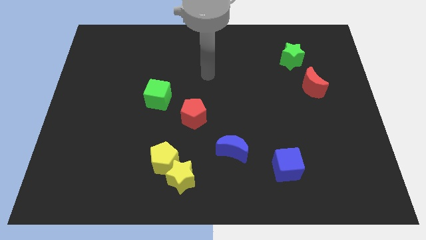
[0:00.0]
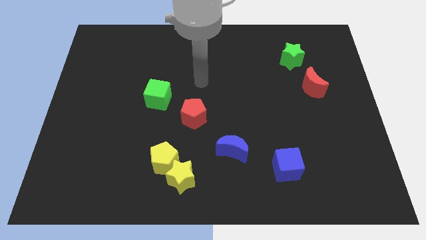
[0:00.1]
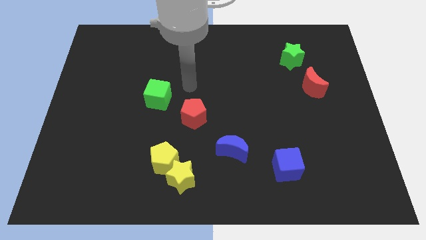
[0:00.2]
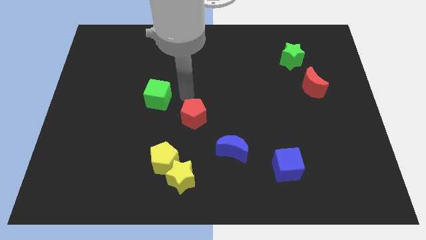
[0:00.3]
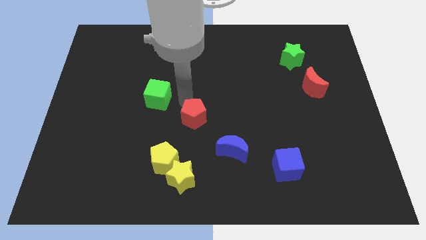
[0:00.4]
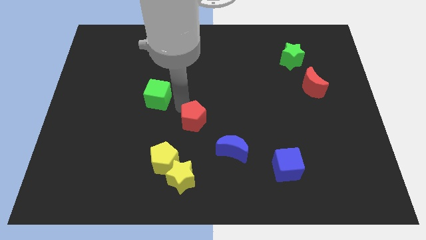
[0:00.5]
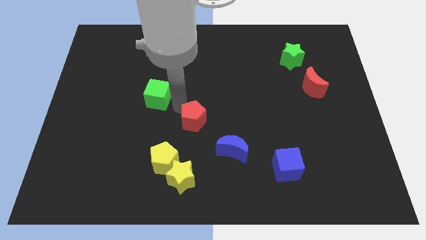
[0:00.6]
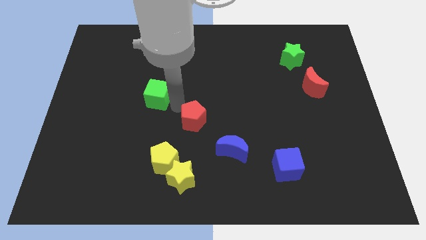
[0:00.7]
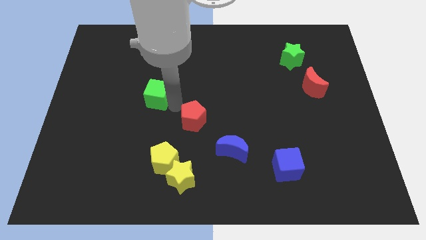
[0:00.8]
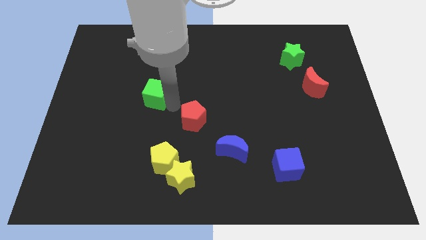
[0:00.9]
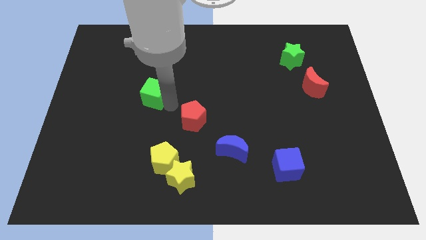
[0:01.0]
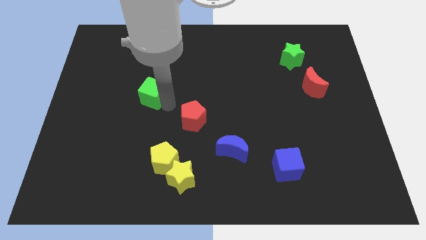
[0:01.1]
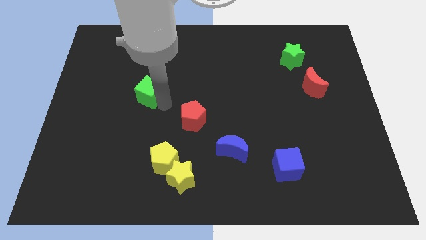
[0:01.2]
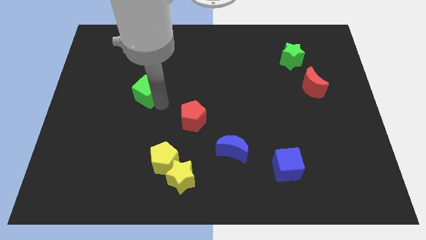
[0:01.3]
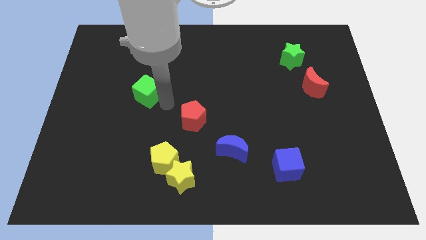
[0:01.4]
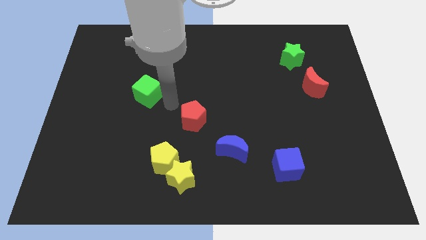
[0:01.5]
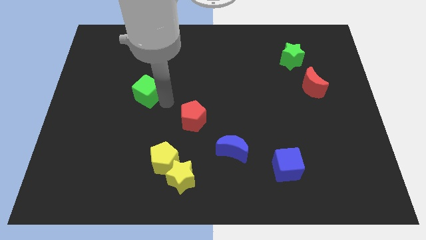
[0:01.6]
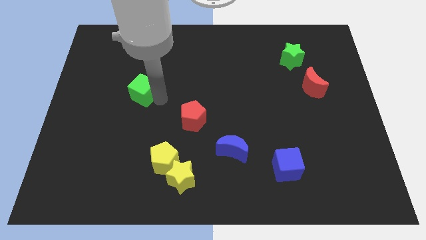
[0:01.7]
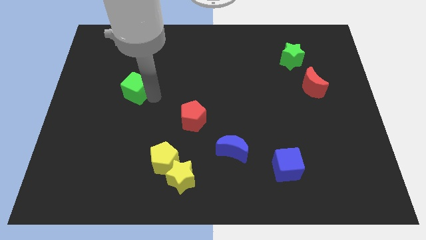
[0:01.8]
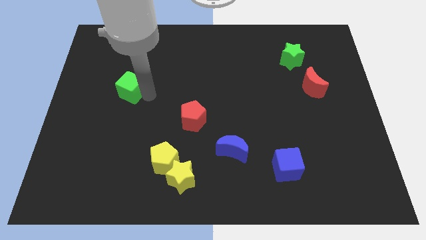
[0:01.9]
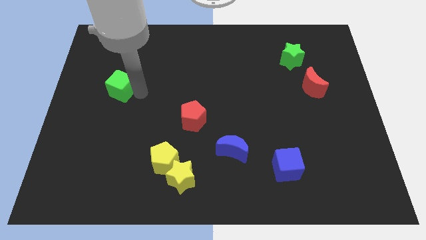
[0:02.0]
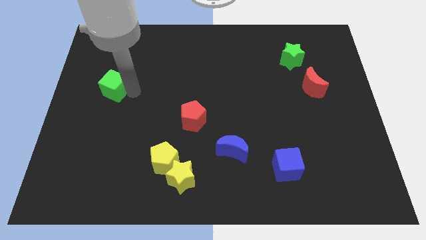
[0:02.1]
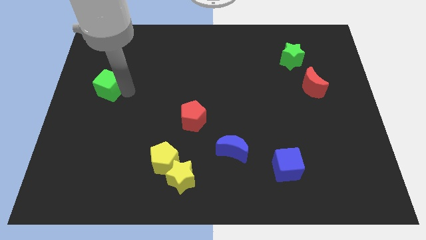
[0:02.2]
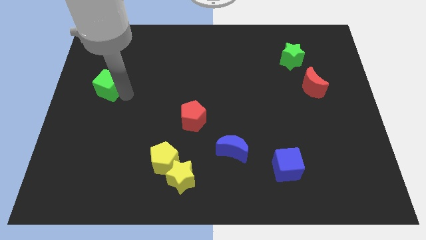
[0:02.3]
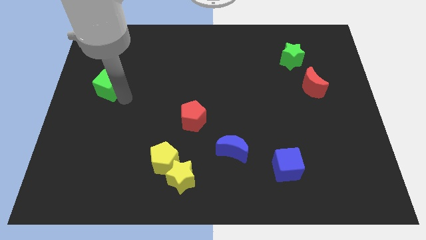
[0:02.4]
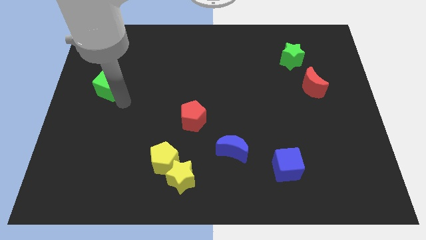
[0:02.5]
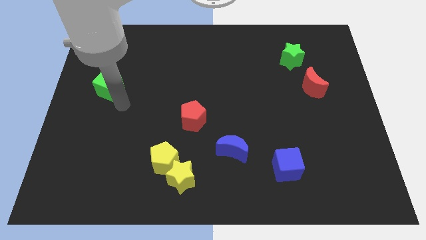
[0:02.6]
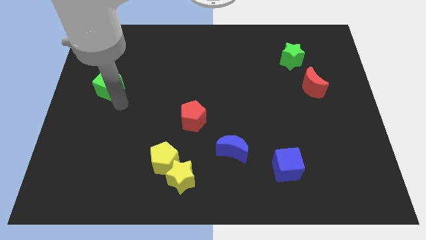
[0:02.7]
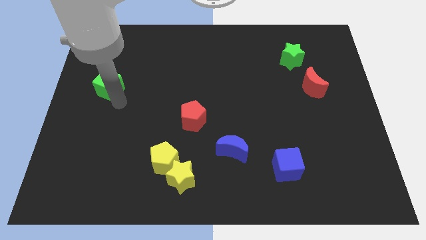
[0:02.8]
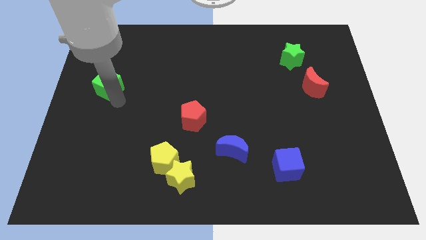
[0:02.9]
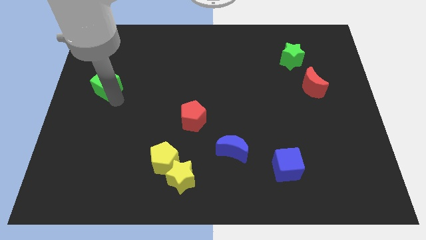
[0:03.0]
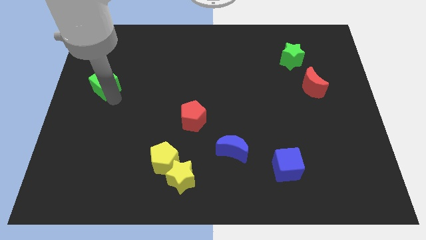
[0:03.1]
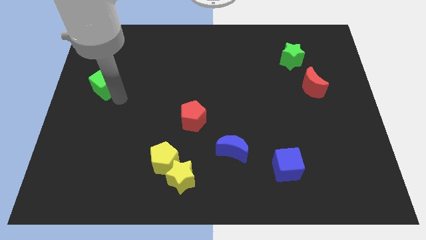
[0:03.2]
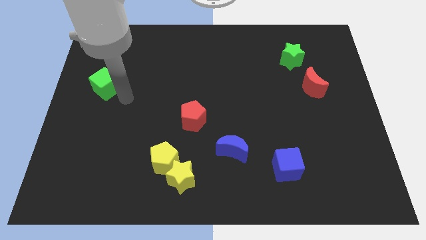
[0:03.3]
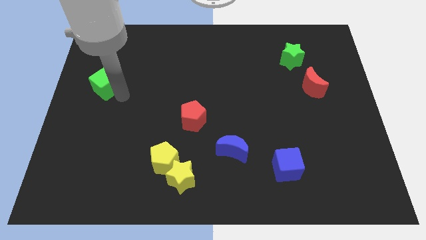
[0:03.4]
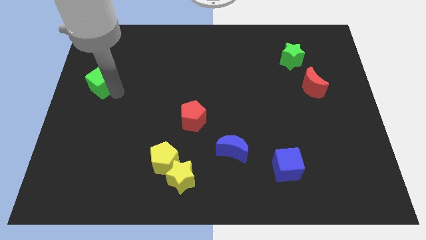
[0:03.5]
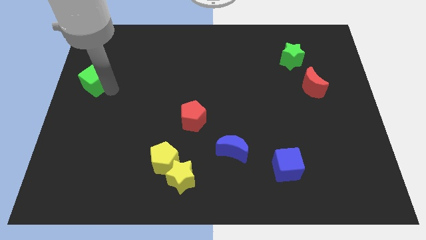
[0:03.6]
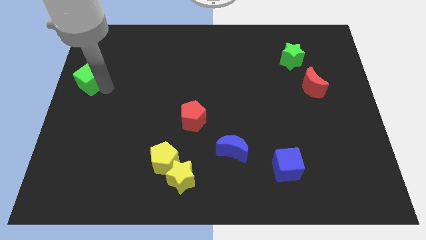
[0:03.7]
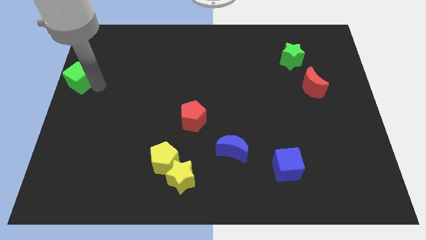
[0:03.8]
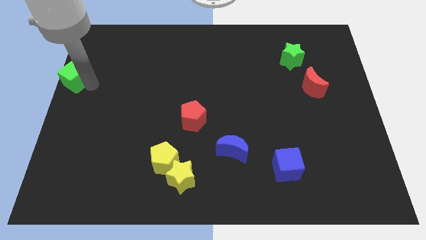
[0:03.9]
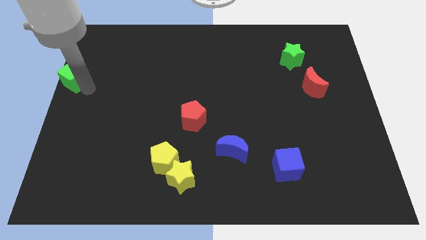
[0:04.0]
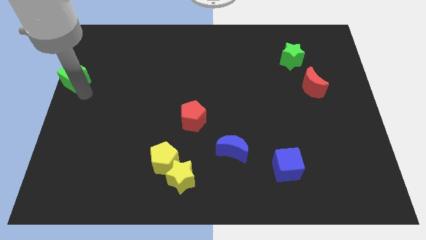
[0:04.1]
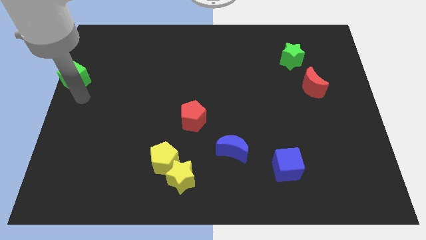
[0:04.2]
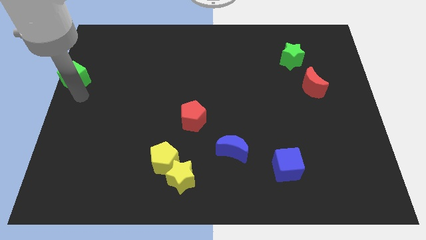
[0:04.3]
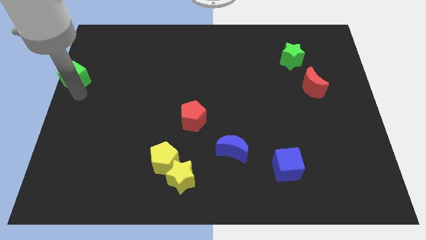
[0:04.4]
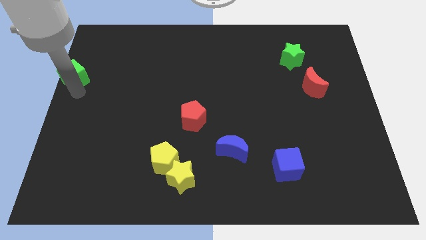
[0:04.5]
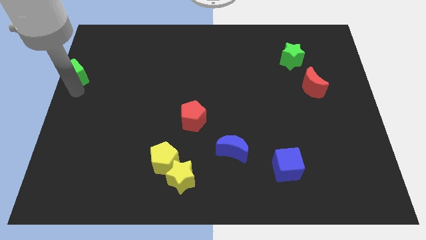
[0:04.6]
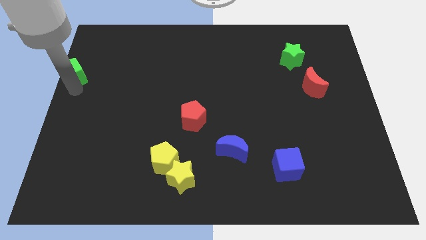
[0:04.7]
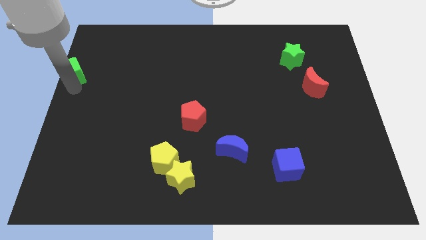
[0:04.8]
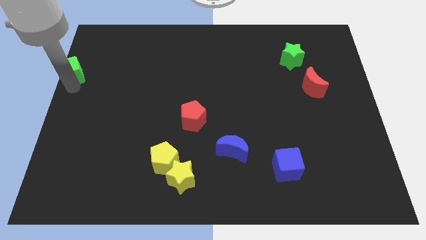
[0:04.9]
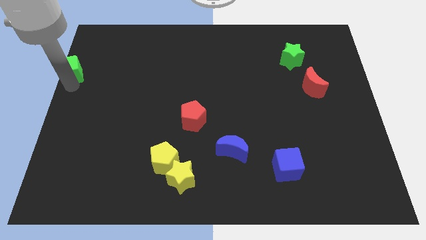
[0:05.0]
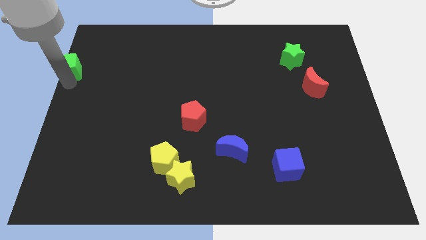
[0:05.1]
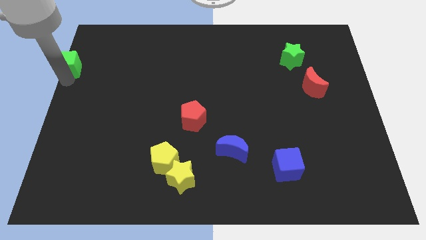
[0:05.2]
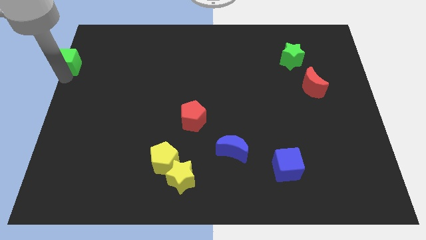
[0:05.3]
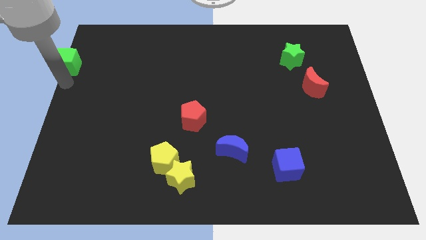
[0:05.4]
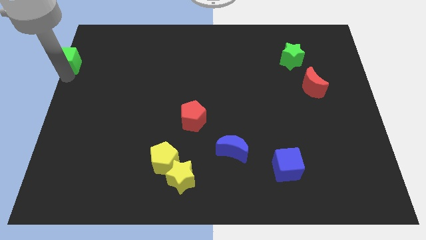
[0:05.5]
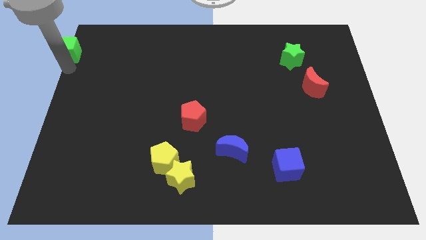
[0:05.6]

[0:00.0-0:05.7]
slide the green cube to the top left

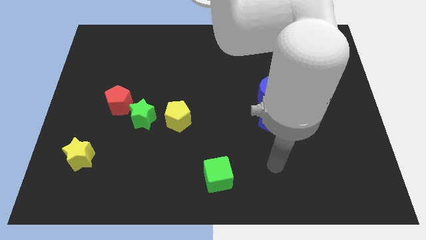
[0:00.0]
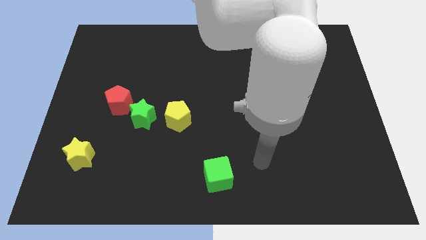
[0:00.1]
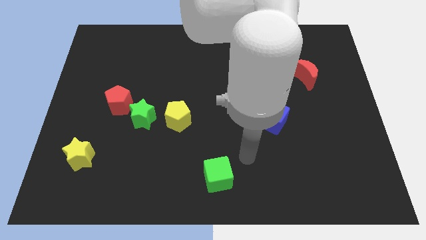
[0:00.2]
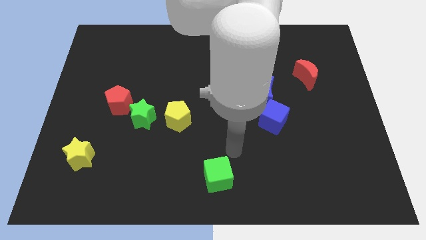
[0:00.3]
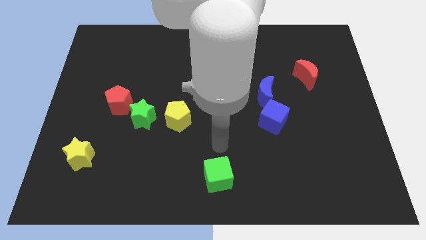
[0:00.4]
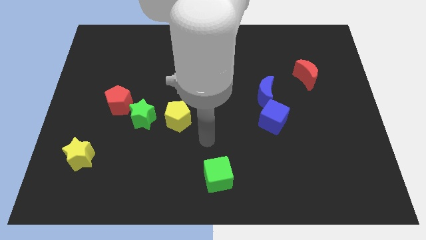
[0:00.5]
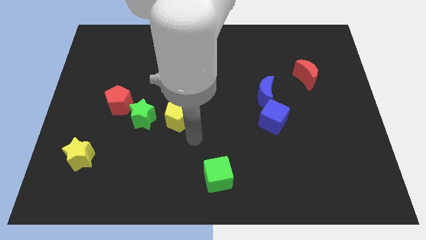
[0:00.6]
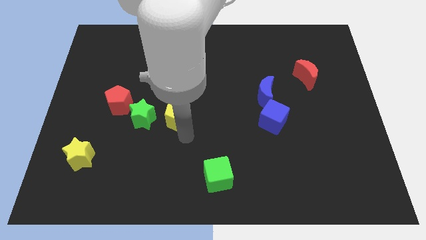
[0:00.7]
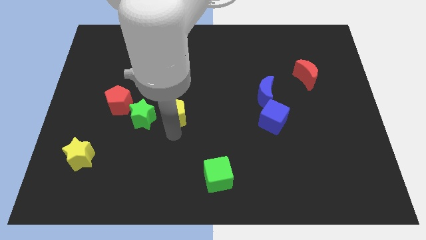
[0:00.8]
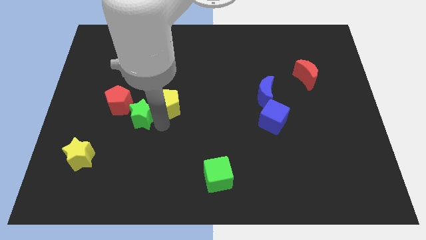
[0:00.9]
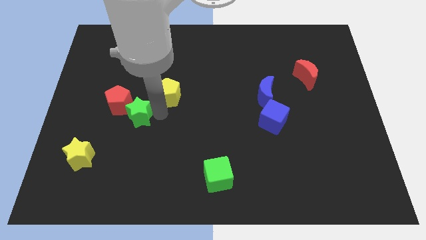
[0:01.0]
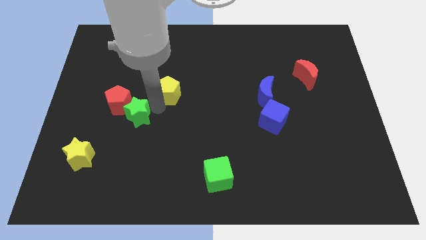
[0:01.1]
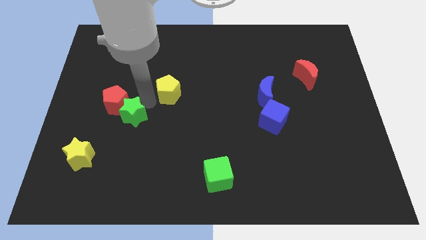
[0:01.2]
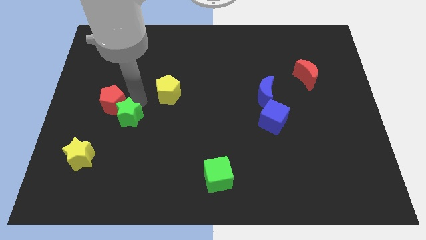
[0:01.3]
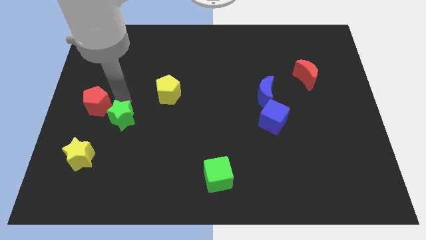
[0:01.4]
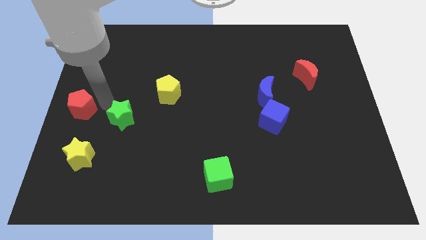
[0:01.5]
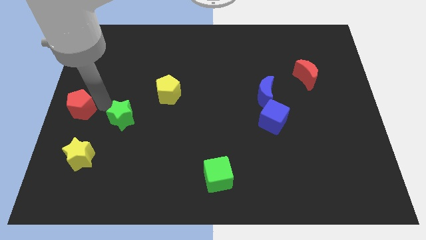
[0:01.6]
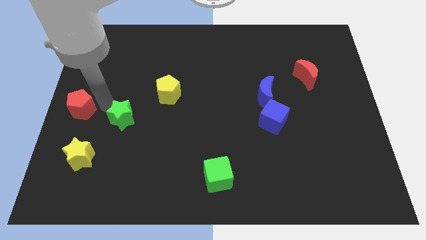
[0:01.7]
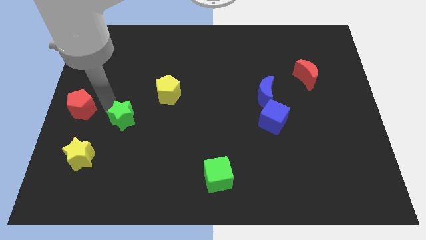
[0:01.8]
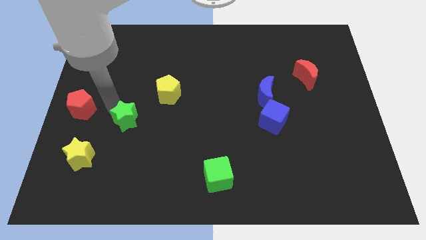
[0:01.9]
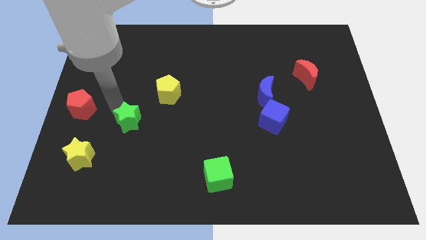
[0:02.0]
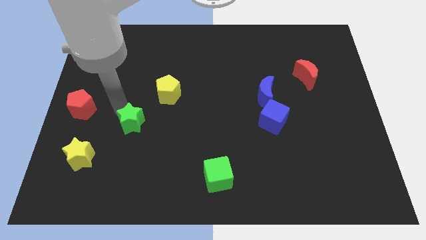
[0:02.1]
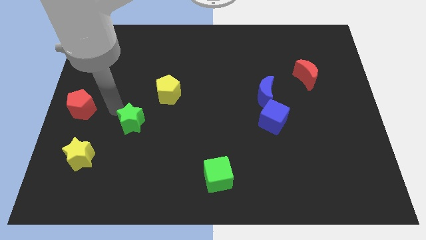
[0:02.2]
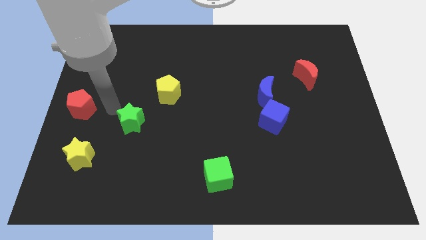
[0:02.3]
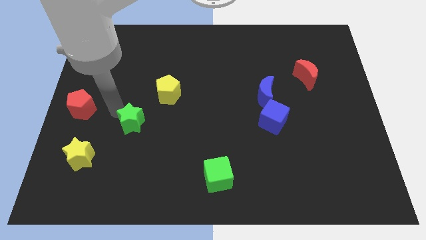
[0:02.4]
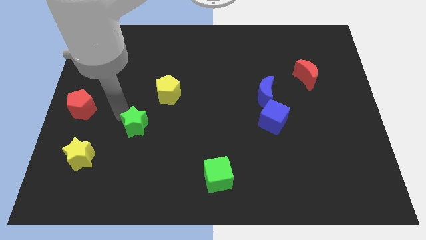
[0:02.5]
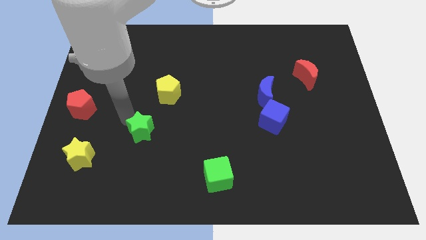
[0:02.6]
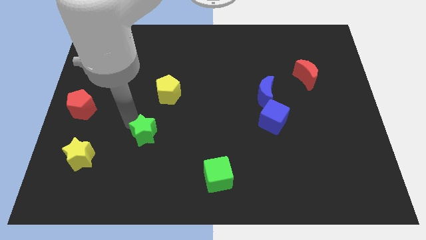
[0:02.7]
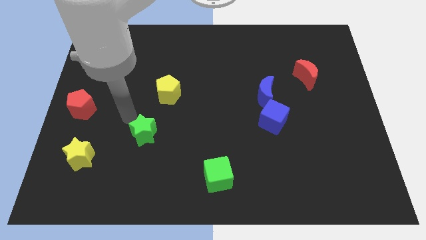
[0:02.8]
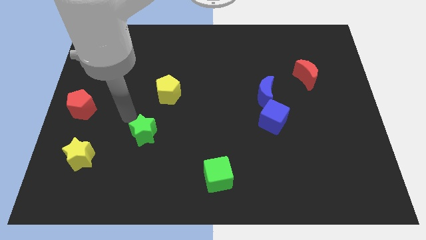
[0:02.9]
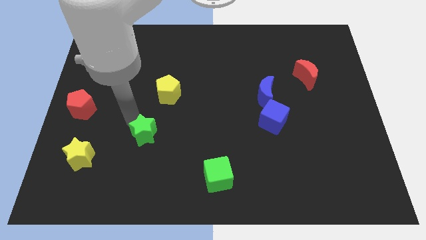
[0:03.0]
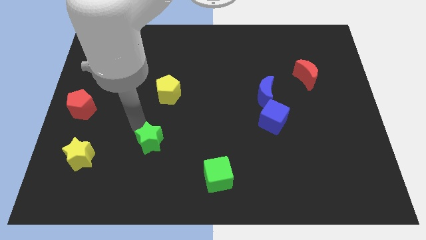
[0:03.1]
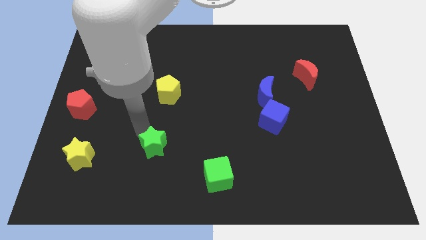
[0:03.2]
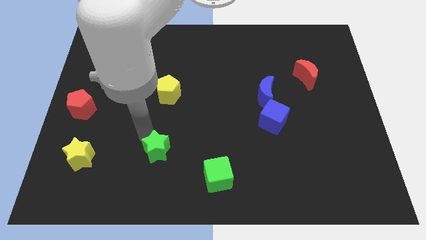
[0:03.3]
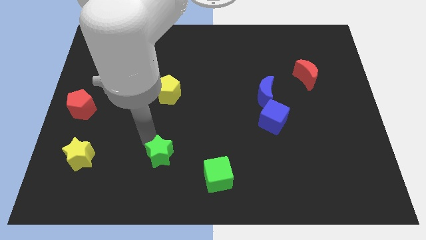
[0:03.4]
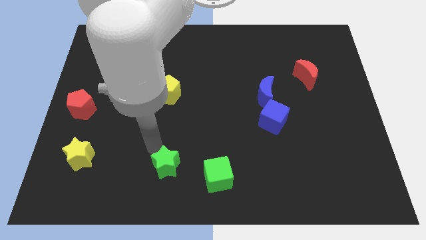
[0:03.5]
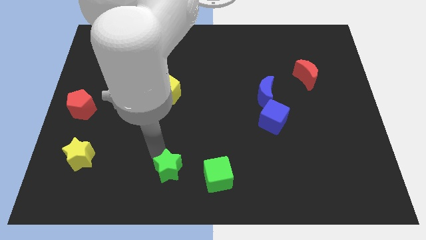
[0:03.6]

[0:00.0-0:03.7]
push the green star to the bottom side
